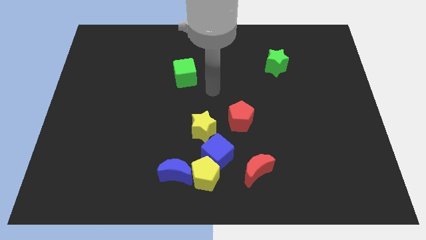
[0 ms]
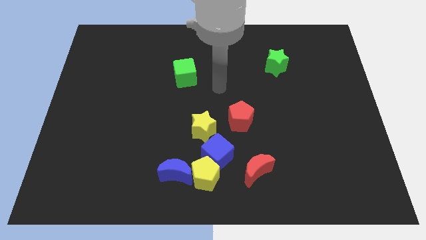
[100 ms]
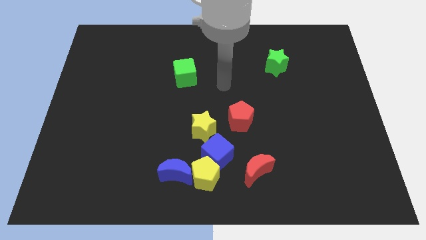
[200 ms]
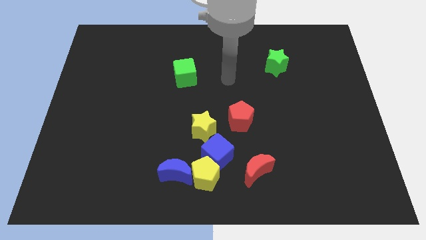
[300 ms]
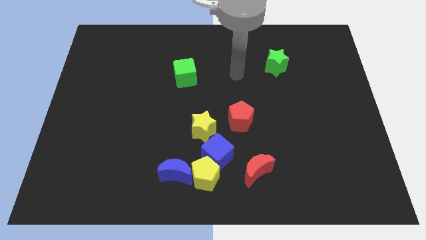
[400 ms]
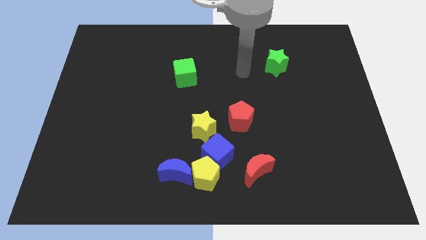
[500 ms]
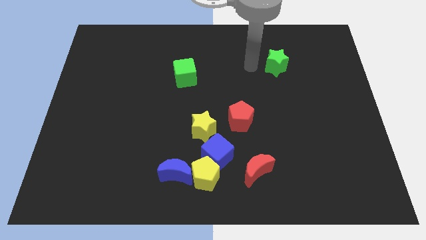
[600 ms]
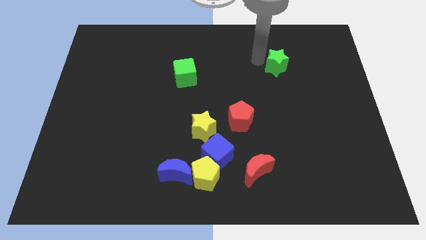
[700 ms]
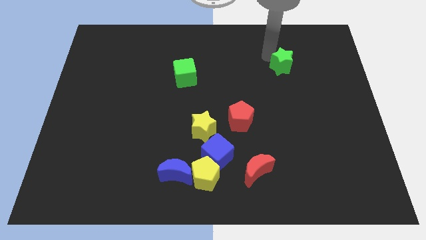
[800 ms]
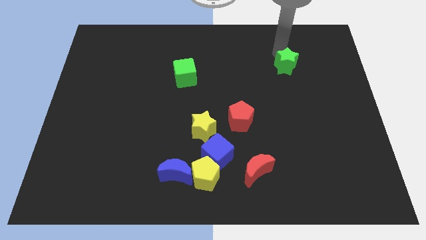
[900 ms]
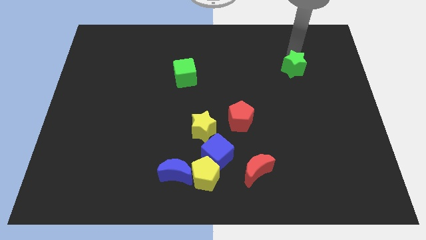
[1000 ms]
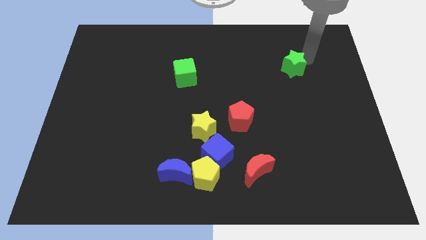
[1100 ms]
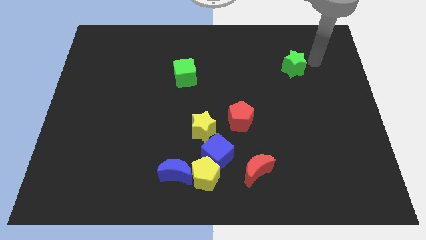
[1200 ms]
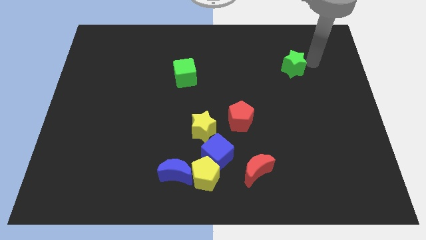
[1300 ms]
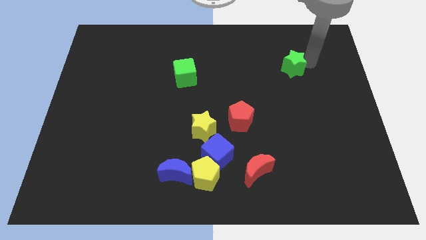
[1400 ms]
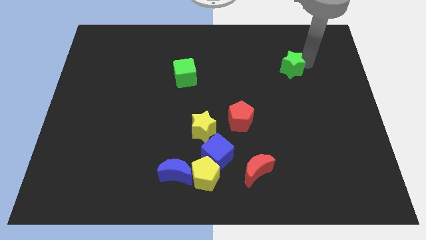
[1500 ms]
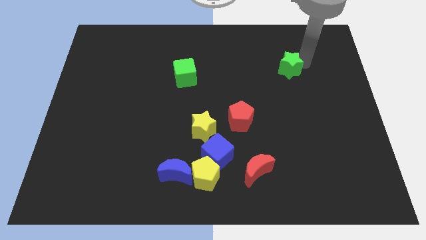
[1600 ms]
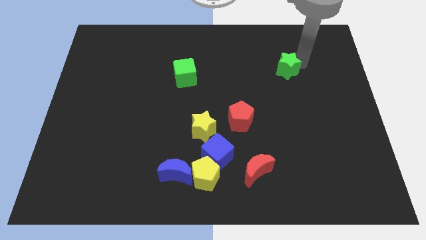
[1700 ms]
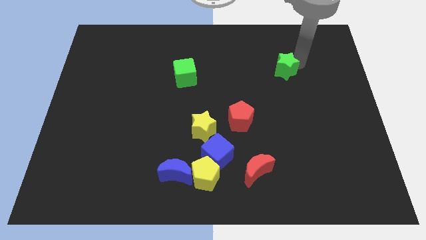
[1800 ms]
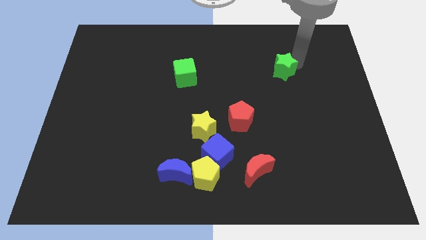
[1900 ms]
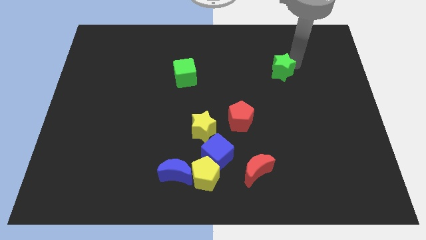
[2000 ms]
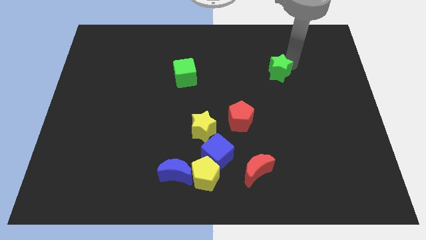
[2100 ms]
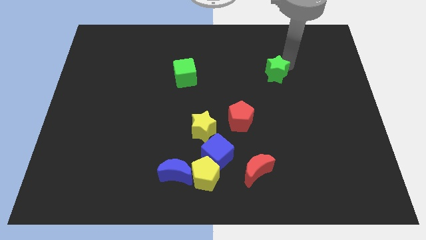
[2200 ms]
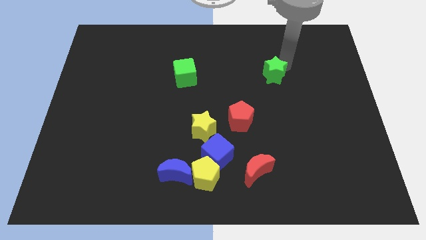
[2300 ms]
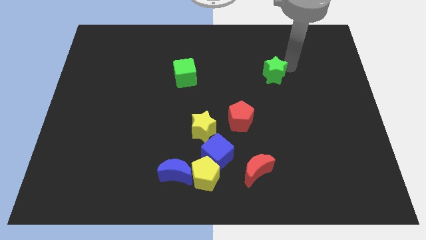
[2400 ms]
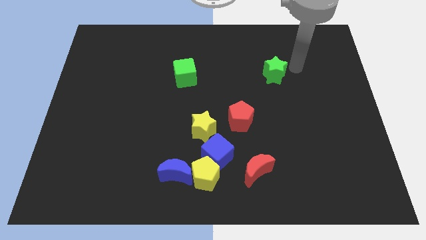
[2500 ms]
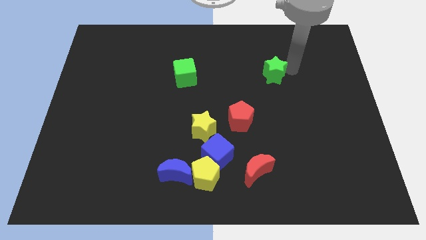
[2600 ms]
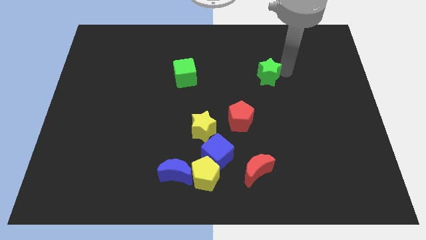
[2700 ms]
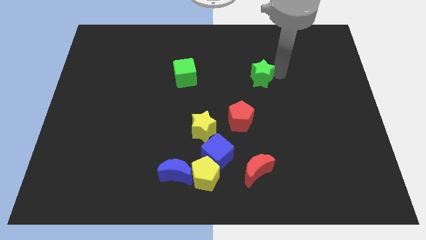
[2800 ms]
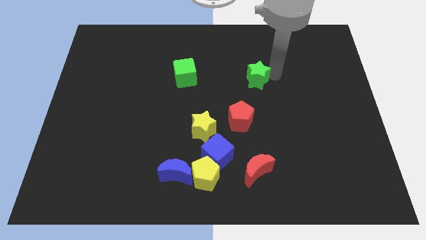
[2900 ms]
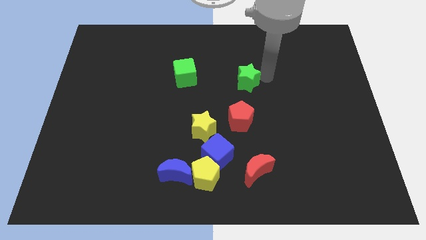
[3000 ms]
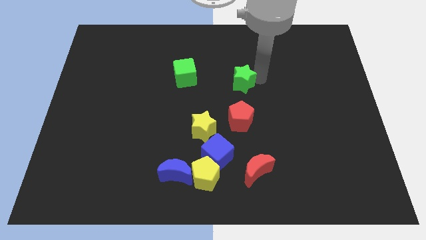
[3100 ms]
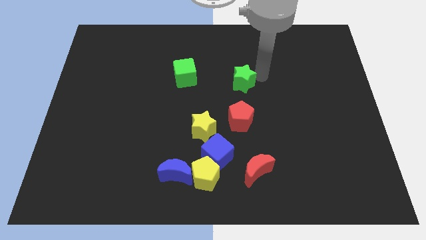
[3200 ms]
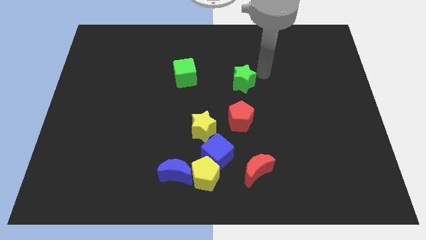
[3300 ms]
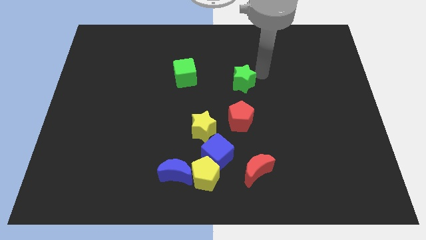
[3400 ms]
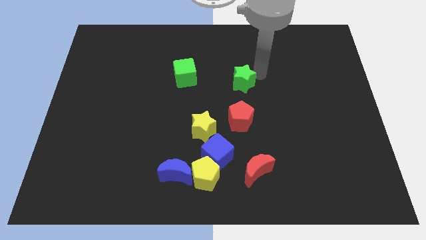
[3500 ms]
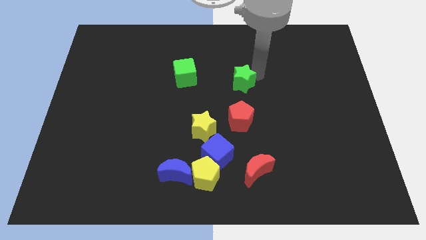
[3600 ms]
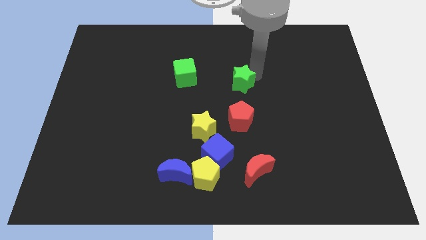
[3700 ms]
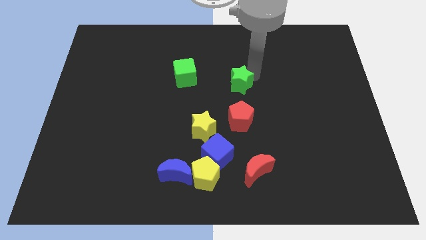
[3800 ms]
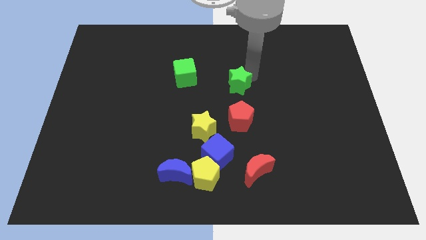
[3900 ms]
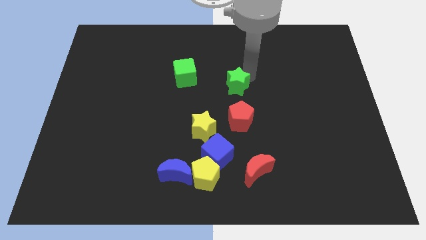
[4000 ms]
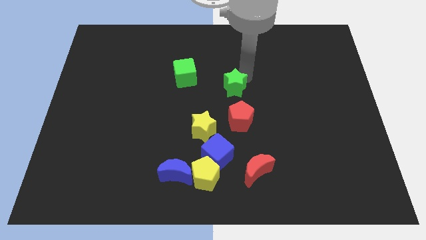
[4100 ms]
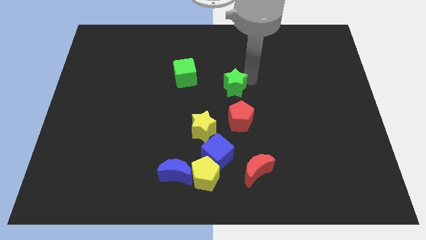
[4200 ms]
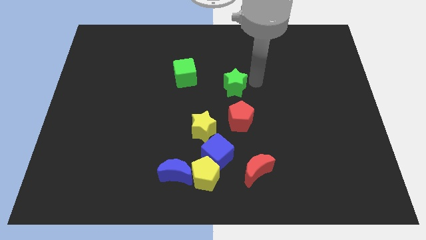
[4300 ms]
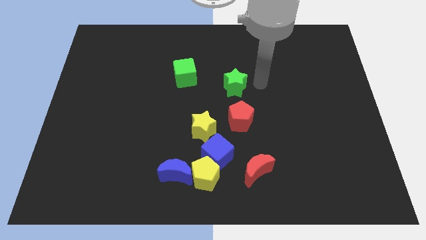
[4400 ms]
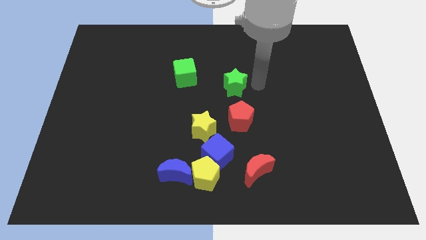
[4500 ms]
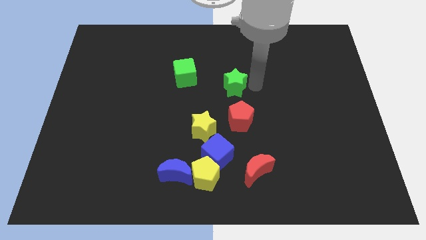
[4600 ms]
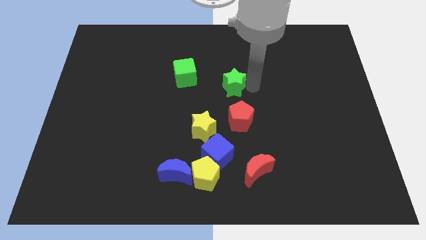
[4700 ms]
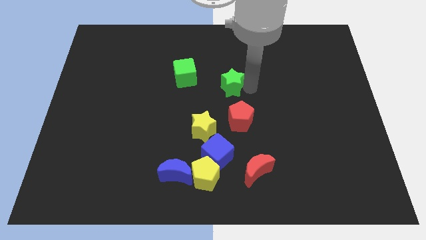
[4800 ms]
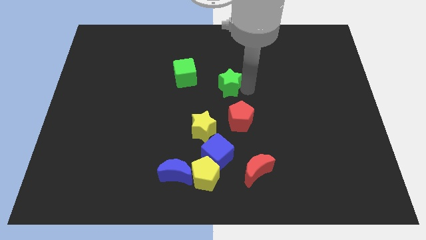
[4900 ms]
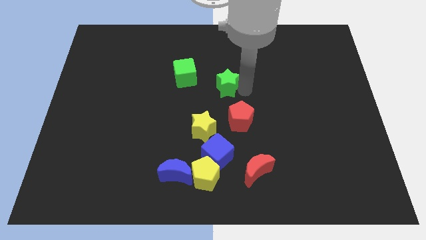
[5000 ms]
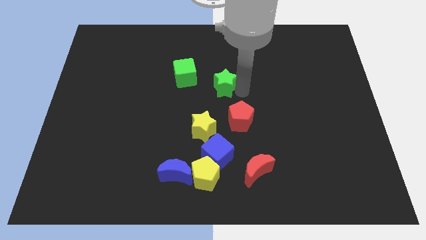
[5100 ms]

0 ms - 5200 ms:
move the green star diagonally down and to the right of the green cube

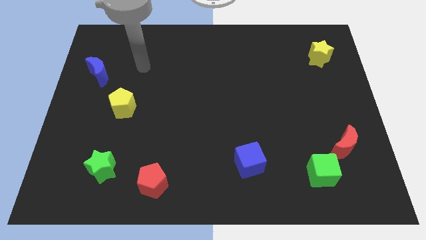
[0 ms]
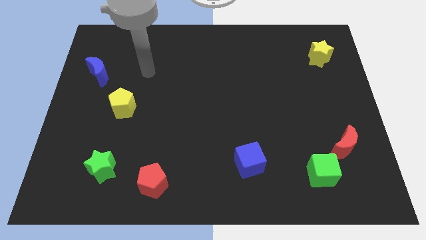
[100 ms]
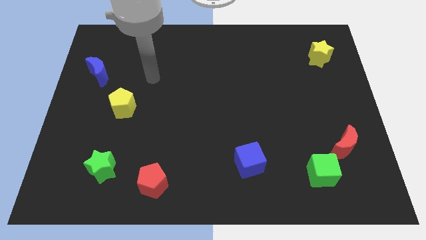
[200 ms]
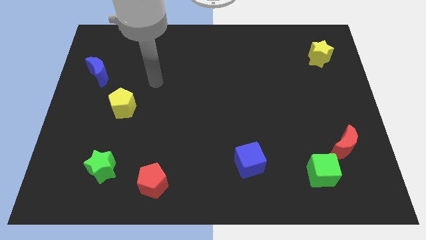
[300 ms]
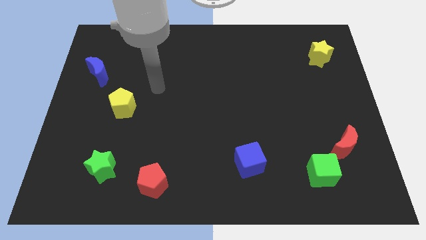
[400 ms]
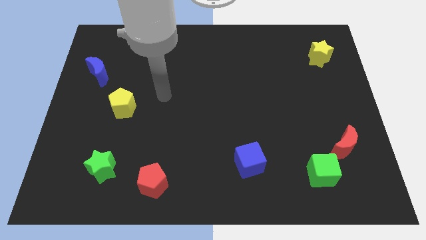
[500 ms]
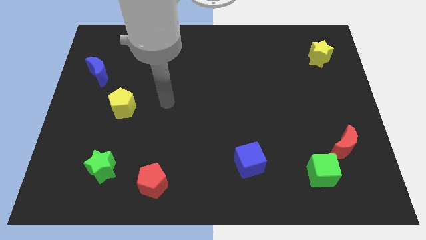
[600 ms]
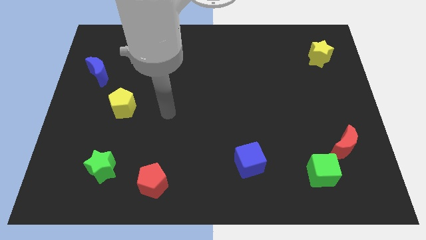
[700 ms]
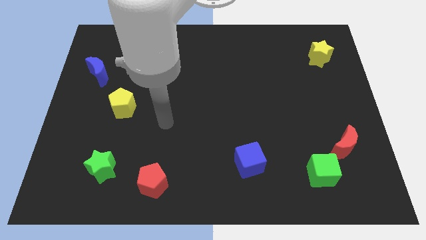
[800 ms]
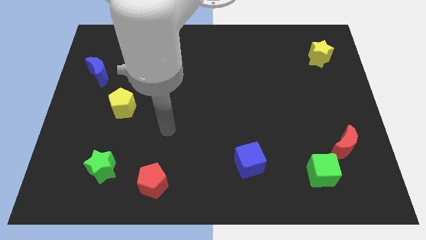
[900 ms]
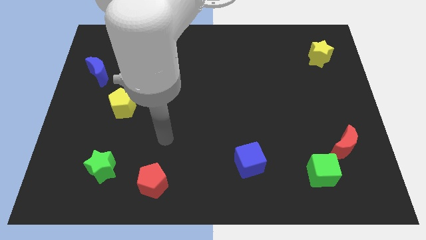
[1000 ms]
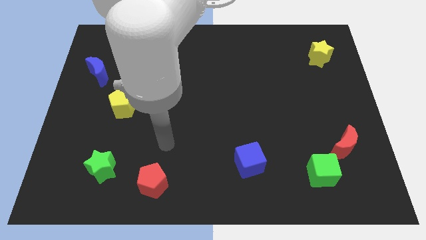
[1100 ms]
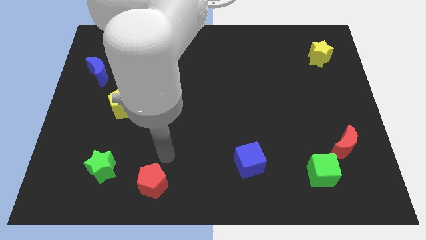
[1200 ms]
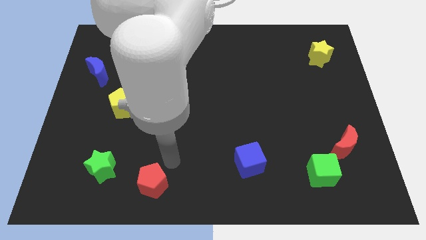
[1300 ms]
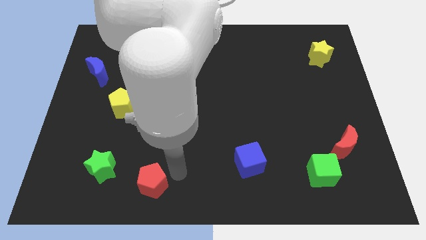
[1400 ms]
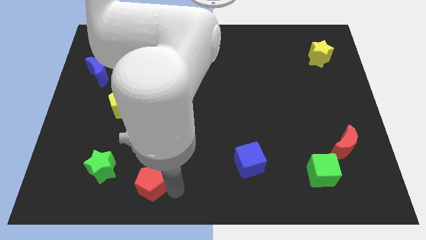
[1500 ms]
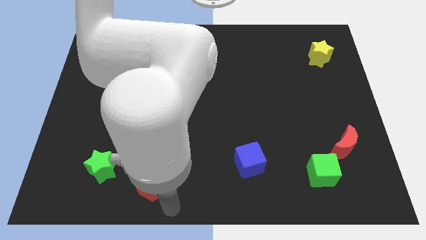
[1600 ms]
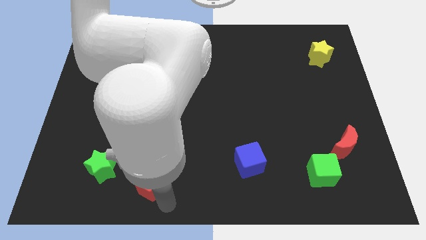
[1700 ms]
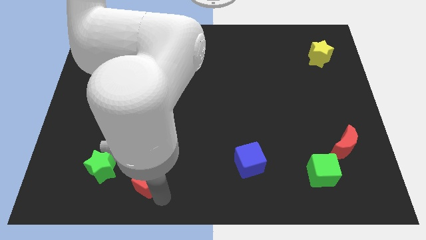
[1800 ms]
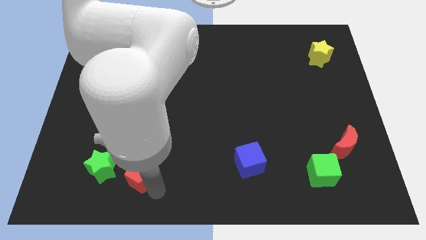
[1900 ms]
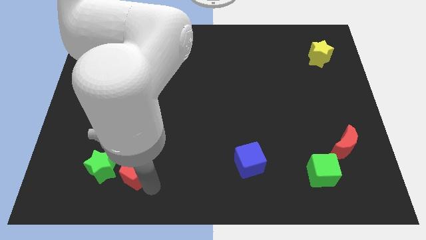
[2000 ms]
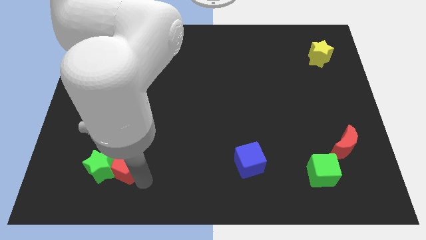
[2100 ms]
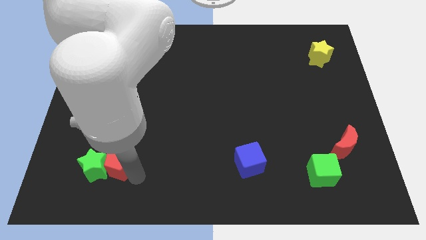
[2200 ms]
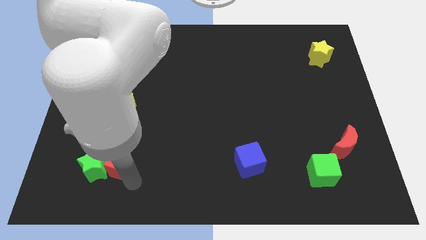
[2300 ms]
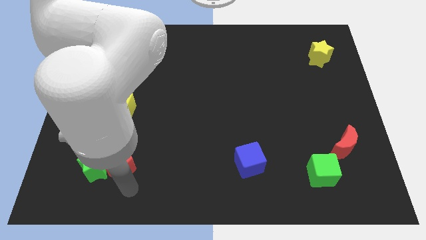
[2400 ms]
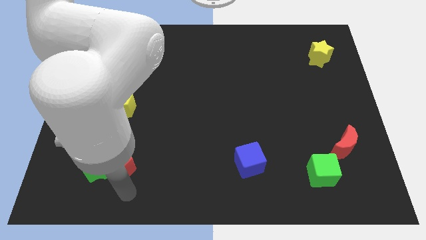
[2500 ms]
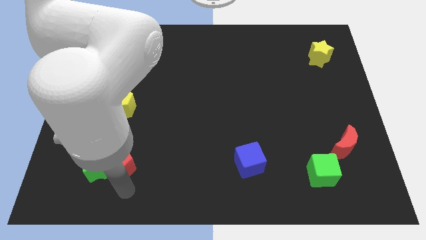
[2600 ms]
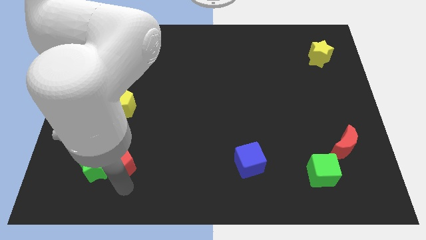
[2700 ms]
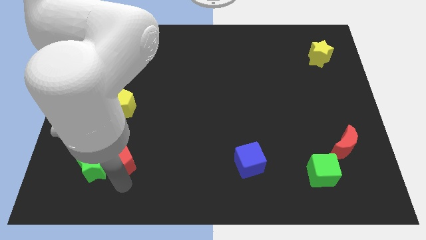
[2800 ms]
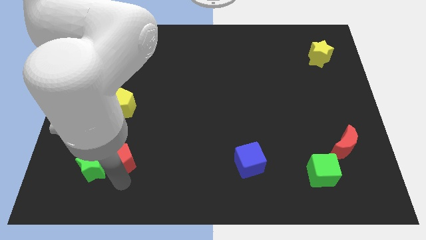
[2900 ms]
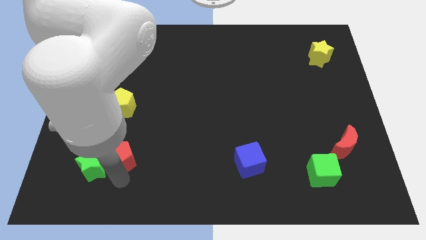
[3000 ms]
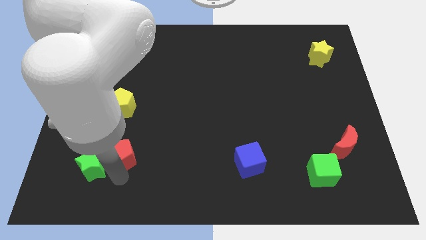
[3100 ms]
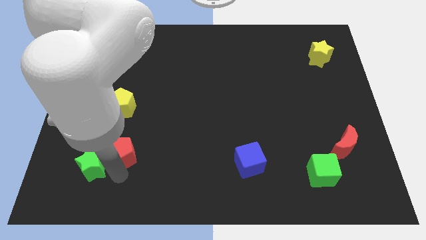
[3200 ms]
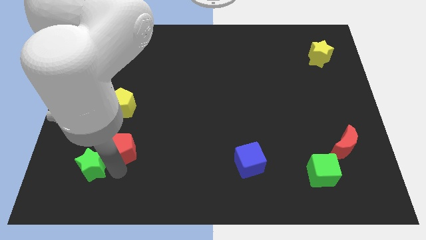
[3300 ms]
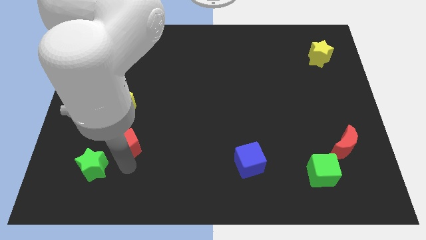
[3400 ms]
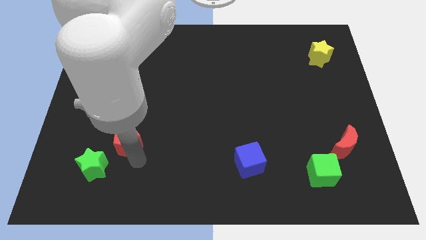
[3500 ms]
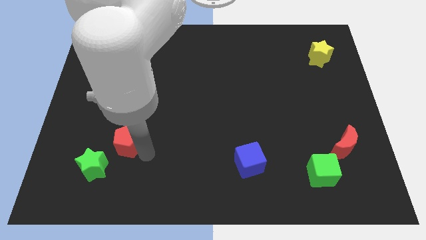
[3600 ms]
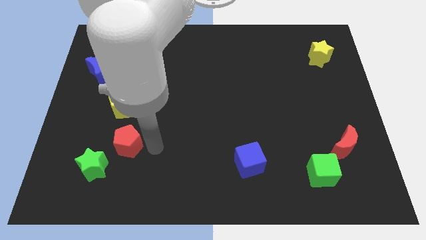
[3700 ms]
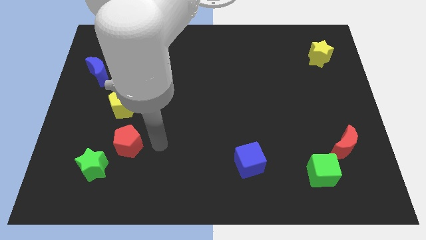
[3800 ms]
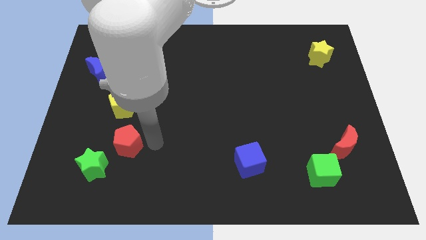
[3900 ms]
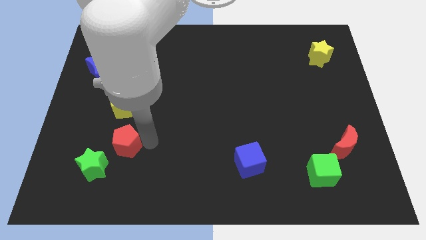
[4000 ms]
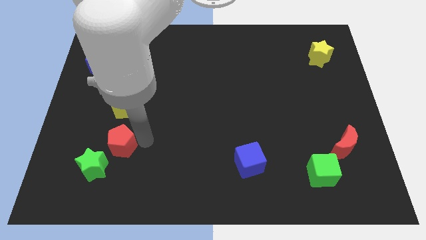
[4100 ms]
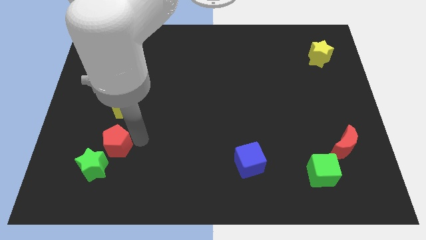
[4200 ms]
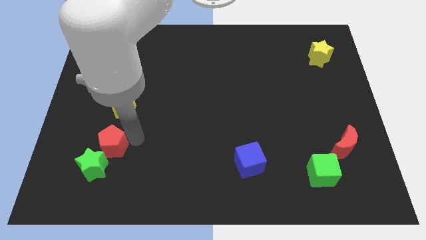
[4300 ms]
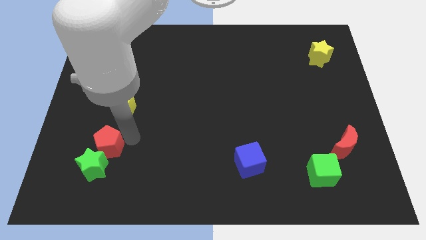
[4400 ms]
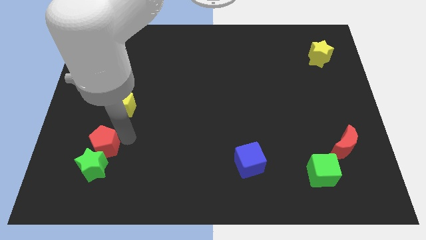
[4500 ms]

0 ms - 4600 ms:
slide the red pentagon to the top left side of the green star
